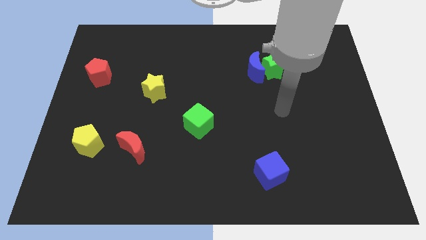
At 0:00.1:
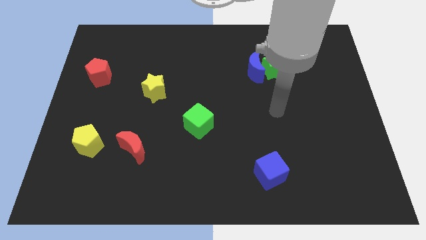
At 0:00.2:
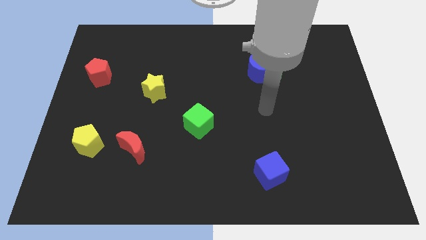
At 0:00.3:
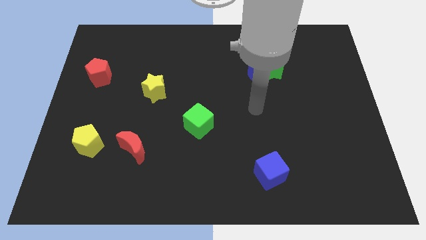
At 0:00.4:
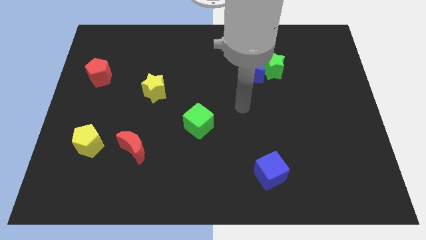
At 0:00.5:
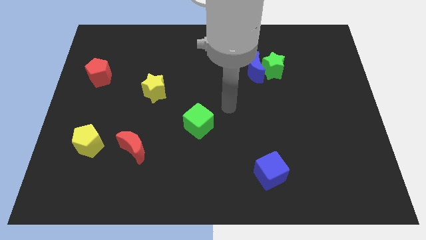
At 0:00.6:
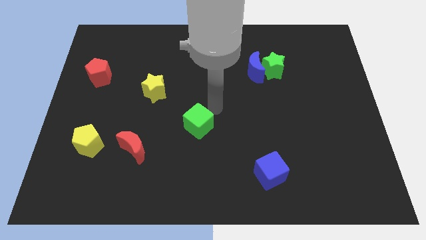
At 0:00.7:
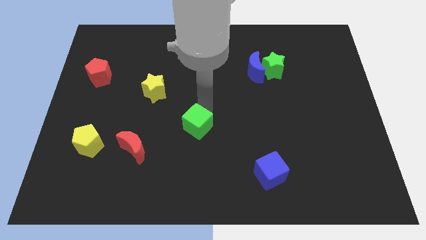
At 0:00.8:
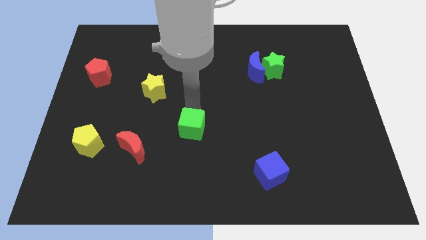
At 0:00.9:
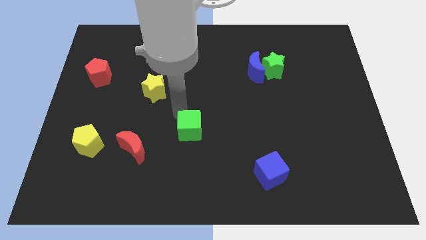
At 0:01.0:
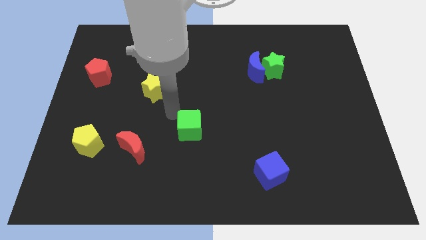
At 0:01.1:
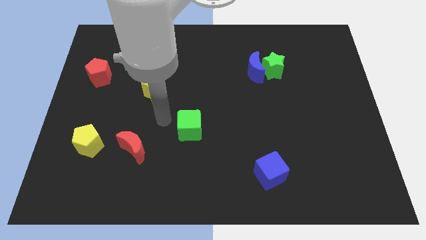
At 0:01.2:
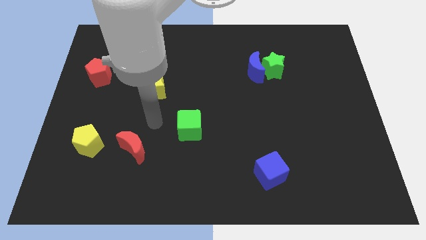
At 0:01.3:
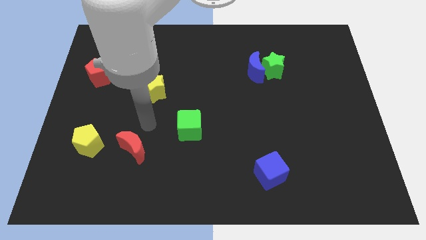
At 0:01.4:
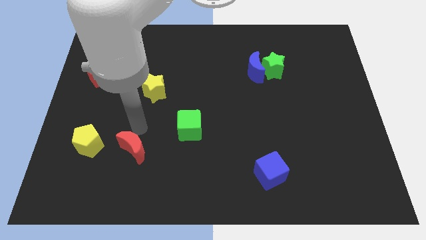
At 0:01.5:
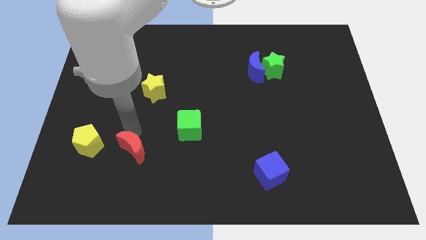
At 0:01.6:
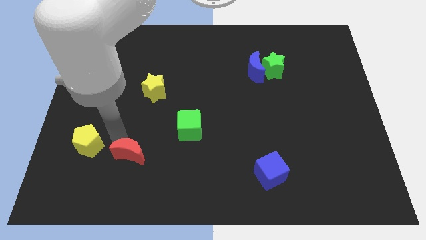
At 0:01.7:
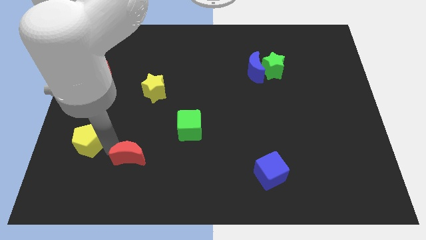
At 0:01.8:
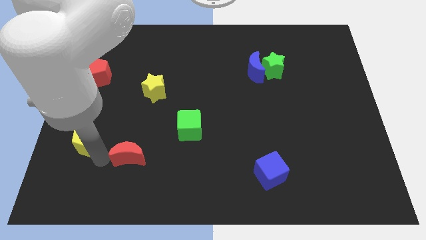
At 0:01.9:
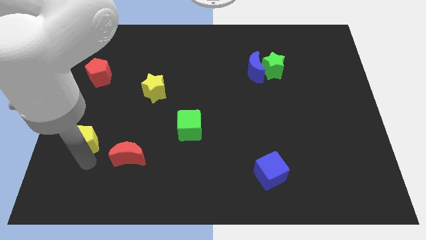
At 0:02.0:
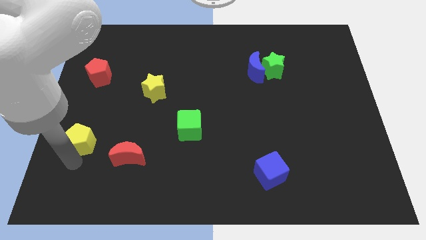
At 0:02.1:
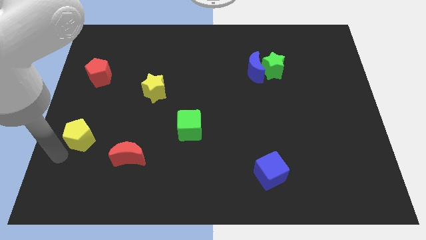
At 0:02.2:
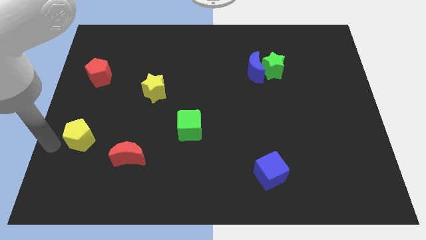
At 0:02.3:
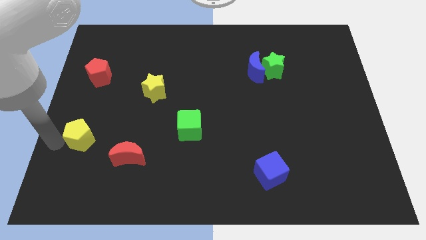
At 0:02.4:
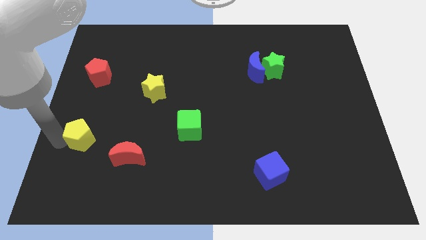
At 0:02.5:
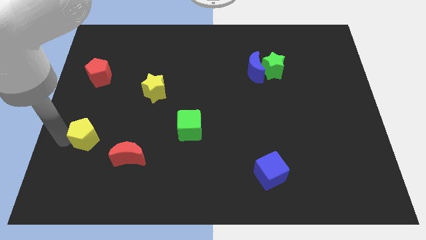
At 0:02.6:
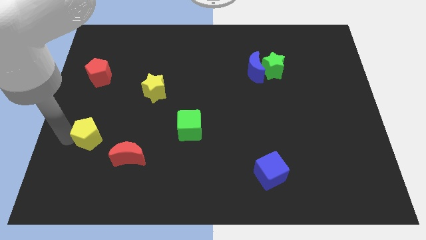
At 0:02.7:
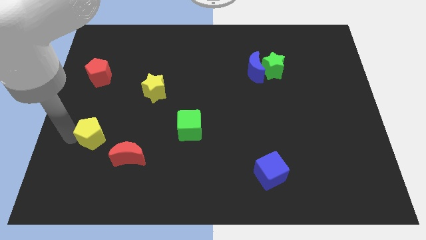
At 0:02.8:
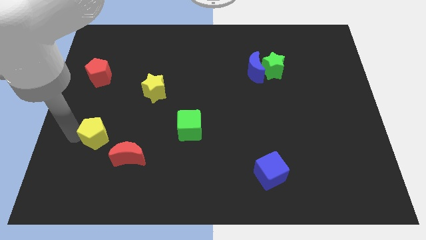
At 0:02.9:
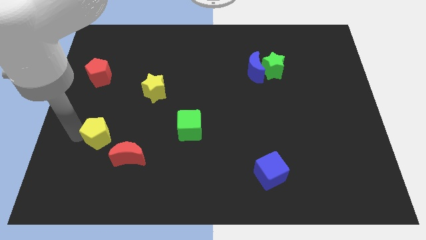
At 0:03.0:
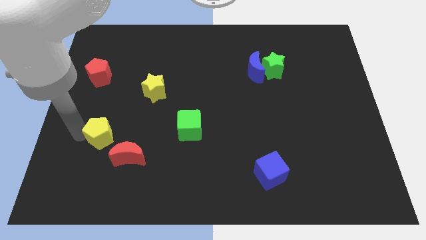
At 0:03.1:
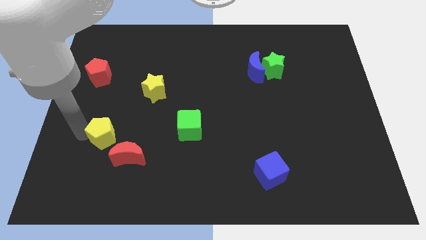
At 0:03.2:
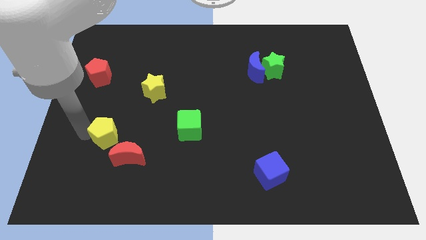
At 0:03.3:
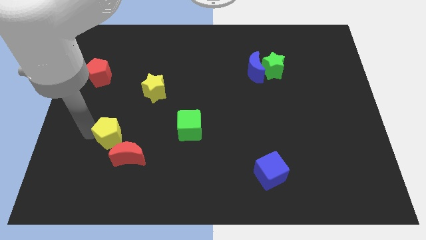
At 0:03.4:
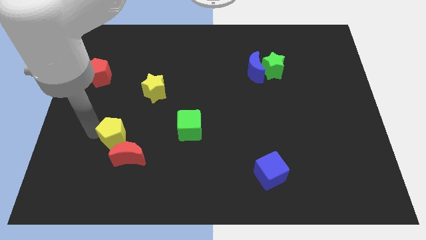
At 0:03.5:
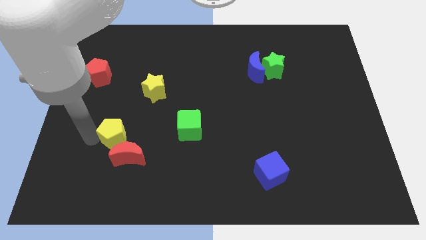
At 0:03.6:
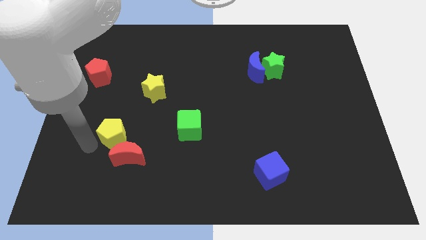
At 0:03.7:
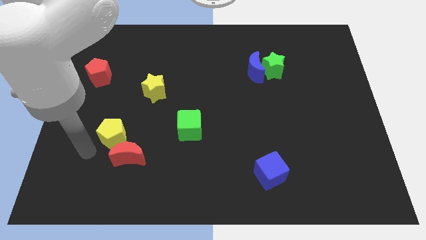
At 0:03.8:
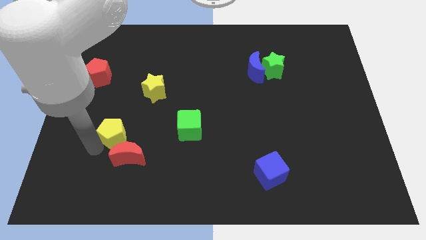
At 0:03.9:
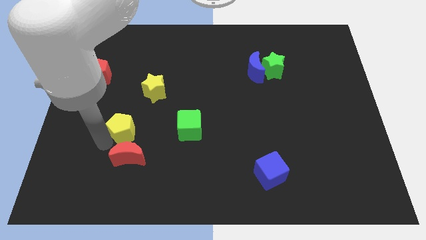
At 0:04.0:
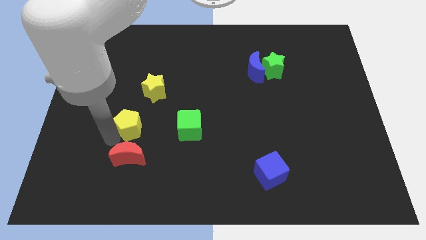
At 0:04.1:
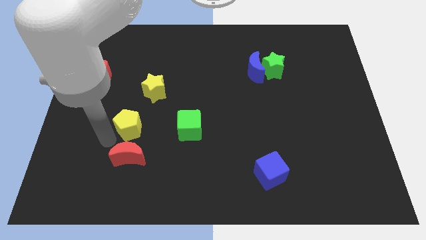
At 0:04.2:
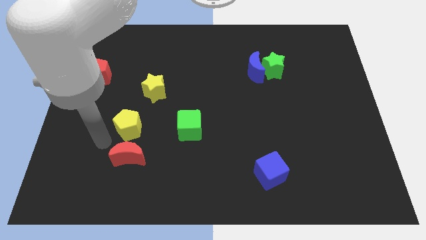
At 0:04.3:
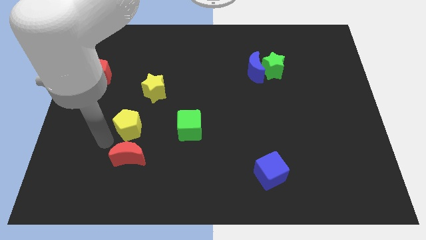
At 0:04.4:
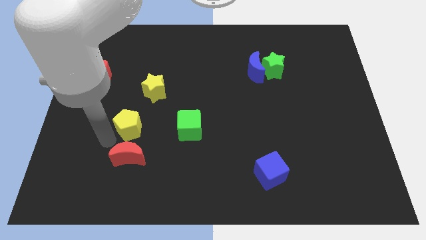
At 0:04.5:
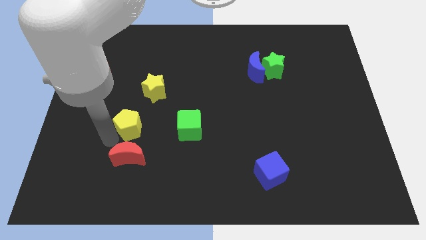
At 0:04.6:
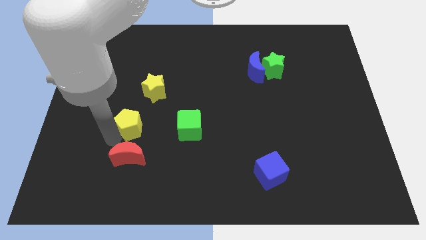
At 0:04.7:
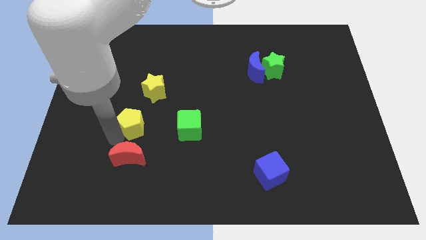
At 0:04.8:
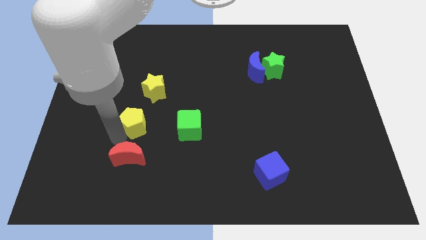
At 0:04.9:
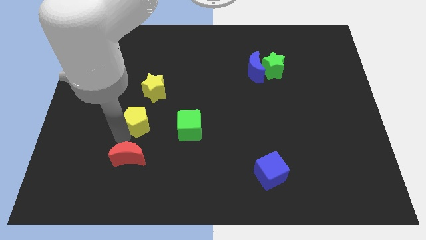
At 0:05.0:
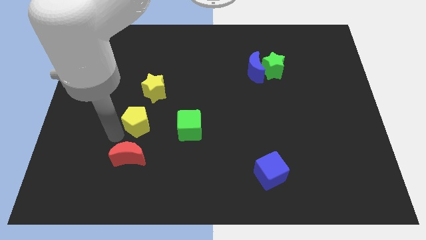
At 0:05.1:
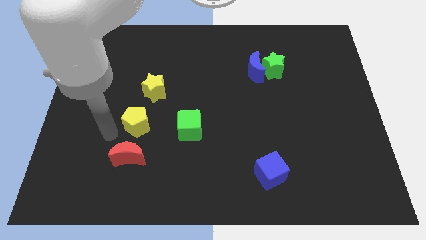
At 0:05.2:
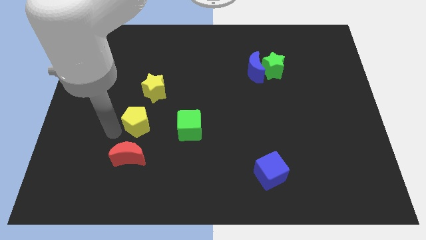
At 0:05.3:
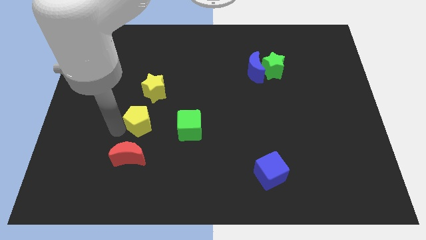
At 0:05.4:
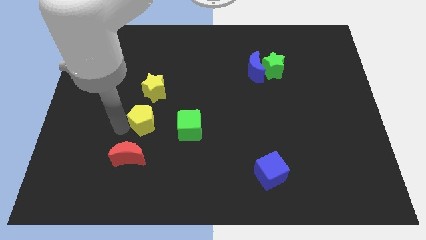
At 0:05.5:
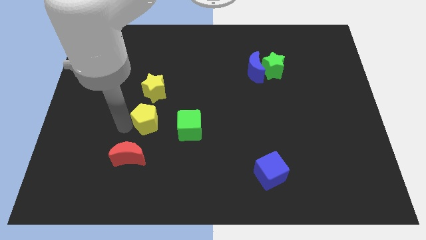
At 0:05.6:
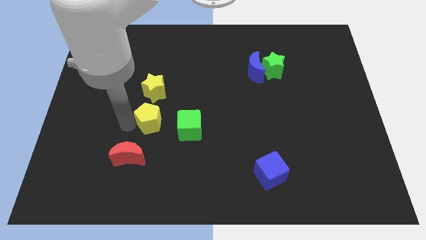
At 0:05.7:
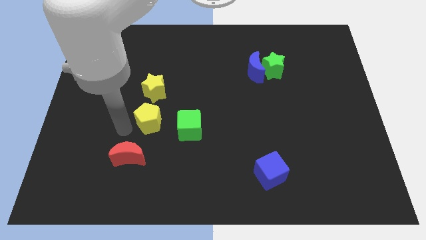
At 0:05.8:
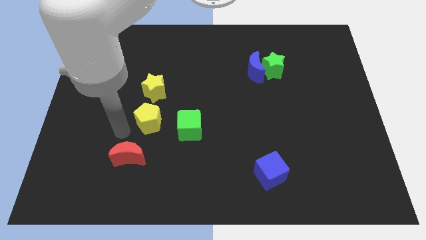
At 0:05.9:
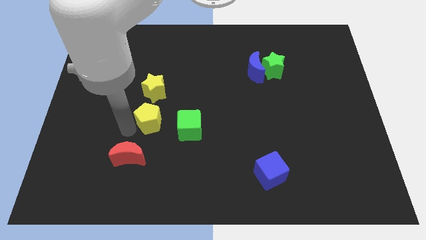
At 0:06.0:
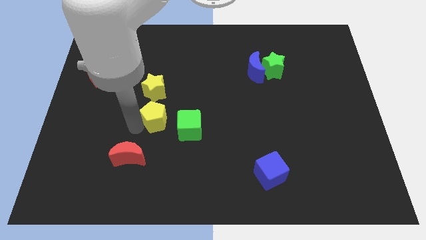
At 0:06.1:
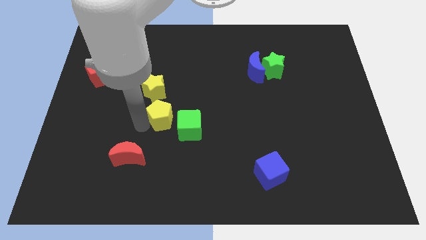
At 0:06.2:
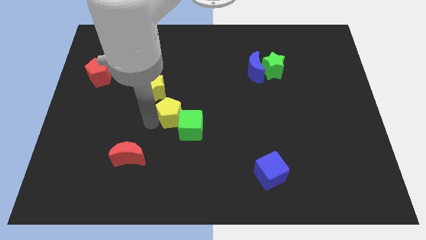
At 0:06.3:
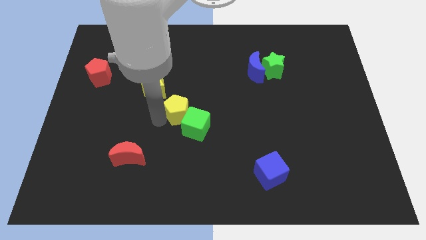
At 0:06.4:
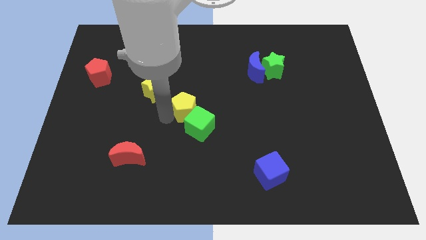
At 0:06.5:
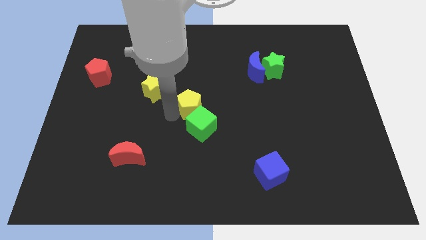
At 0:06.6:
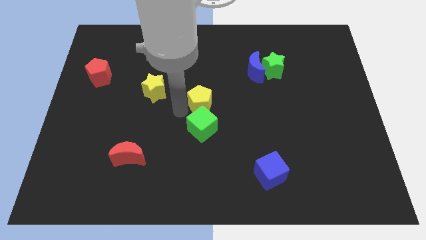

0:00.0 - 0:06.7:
move the yellow pentagon diagonally up and to the right of the green cube

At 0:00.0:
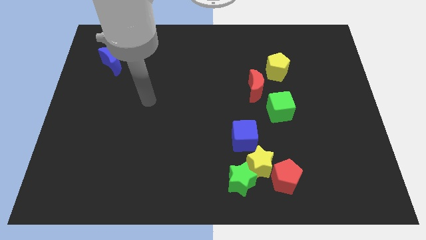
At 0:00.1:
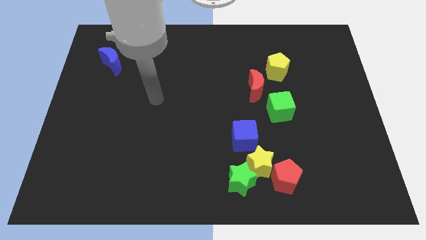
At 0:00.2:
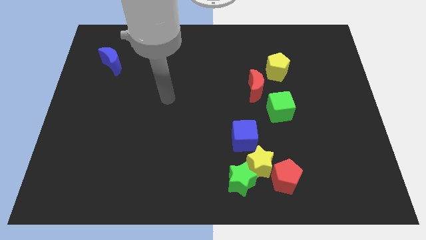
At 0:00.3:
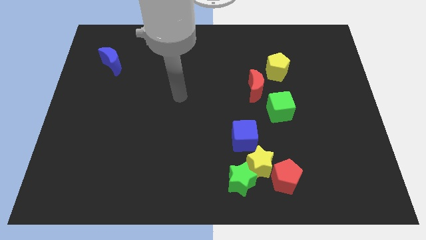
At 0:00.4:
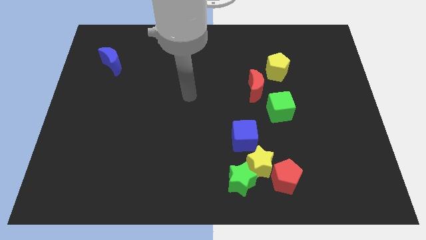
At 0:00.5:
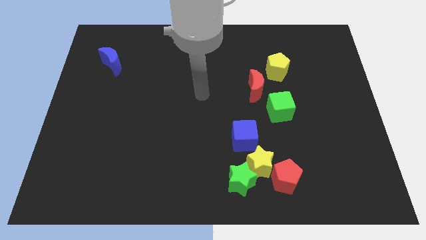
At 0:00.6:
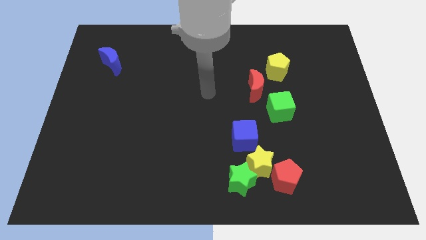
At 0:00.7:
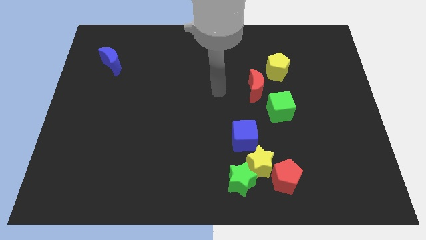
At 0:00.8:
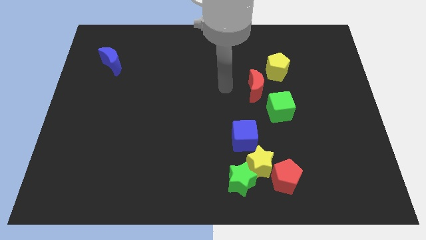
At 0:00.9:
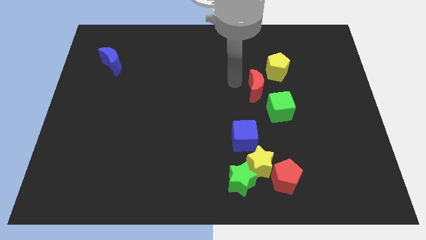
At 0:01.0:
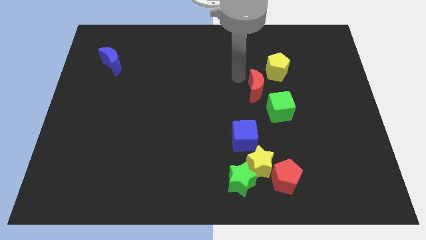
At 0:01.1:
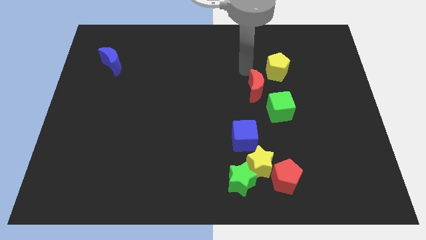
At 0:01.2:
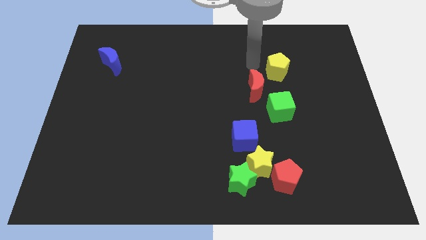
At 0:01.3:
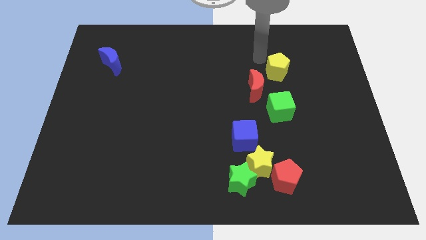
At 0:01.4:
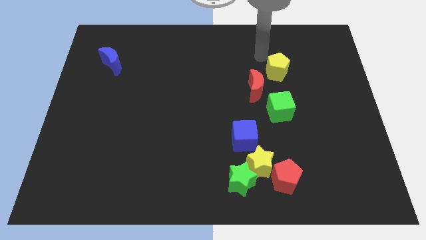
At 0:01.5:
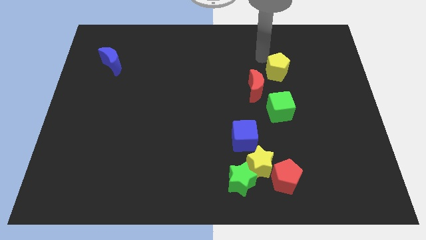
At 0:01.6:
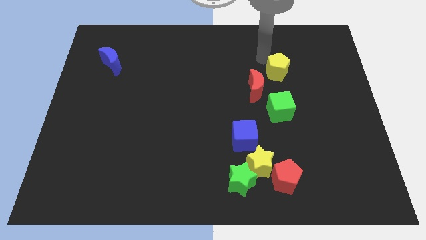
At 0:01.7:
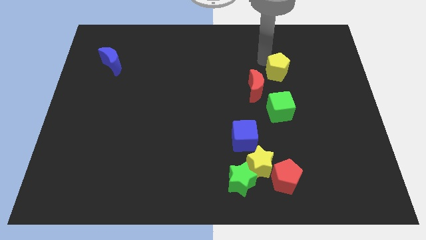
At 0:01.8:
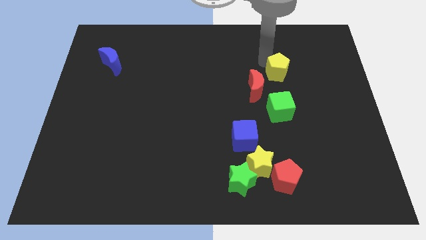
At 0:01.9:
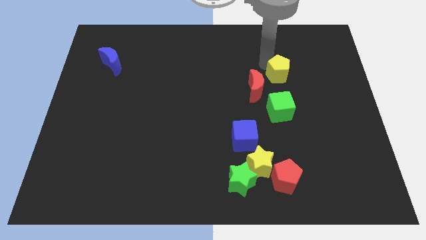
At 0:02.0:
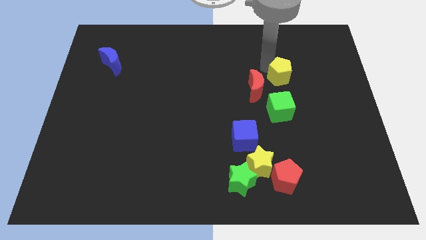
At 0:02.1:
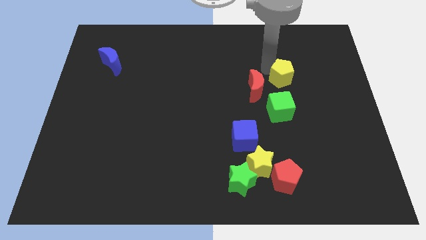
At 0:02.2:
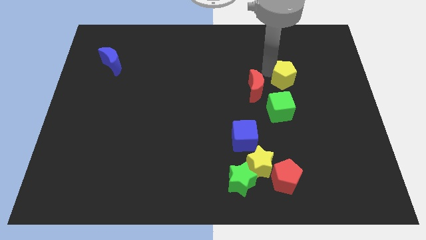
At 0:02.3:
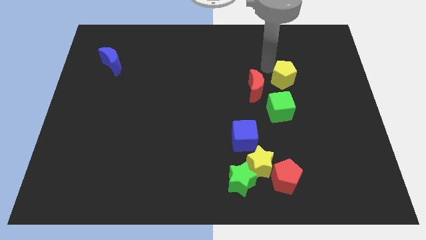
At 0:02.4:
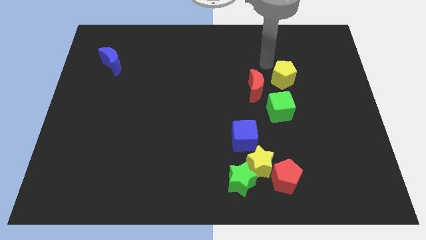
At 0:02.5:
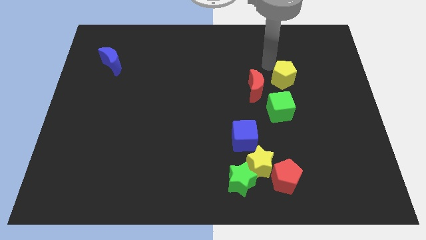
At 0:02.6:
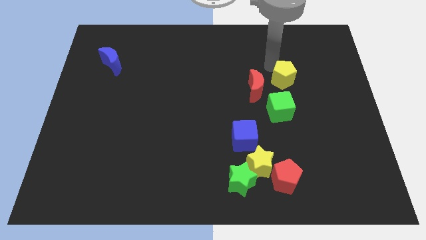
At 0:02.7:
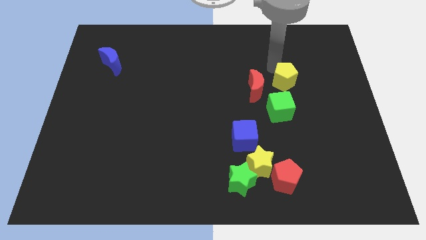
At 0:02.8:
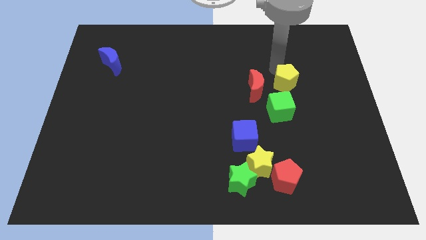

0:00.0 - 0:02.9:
push the yellow pentagon diagonally up and to the right of the green cube
